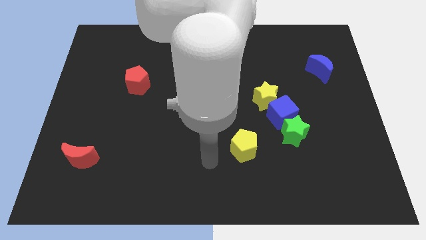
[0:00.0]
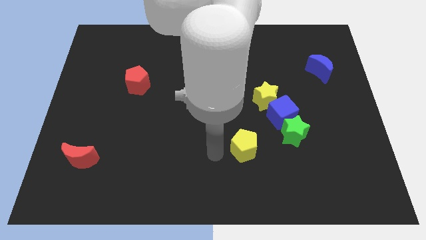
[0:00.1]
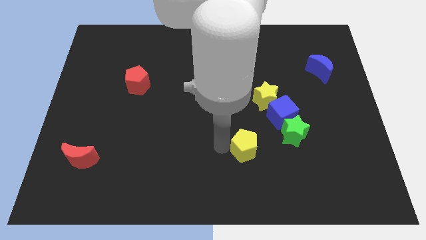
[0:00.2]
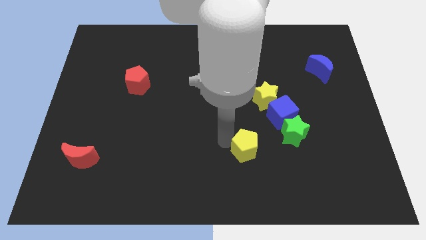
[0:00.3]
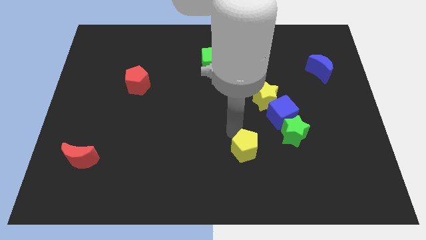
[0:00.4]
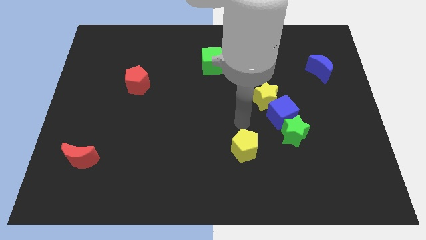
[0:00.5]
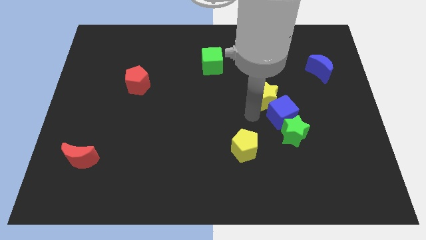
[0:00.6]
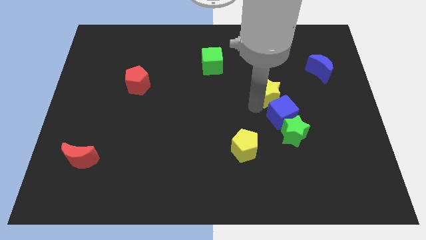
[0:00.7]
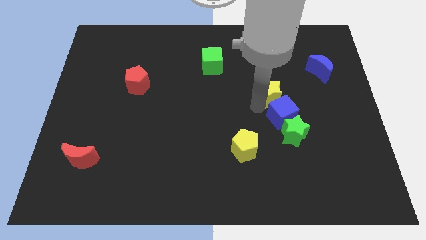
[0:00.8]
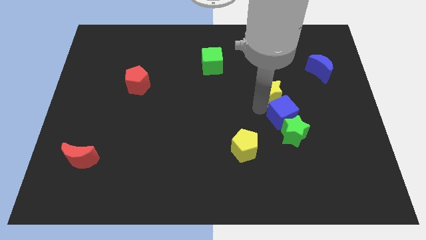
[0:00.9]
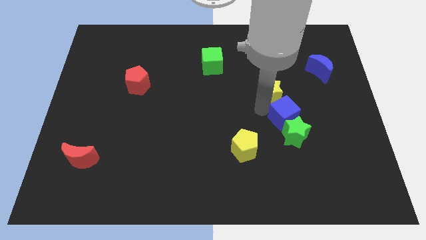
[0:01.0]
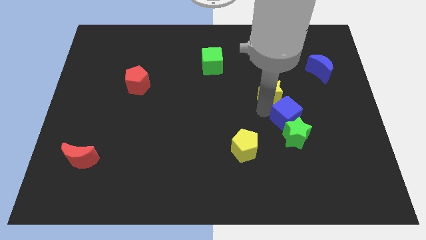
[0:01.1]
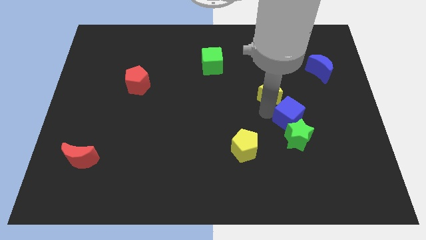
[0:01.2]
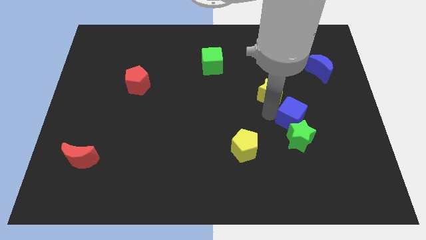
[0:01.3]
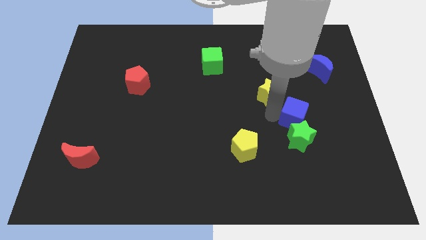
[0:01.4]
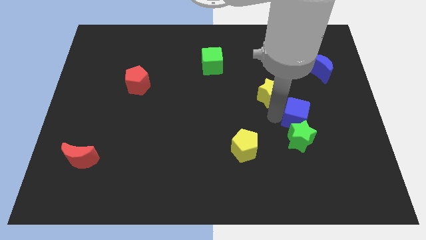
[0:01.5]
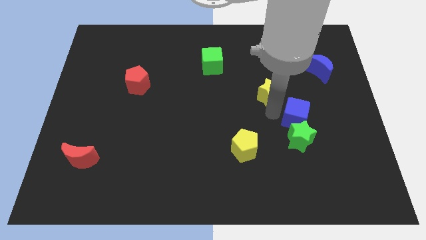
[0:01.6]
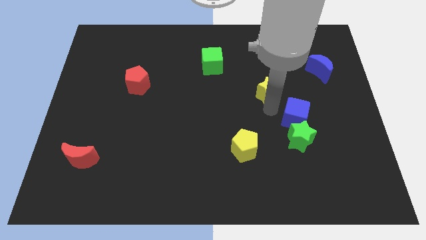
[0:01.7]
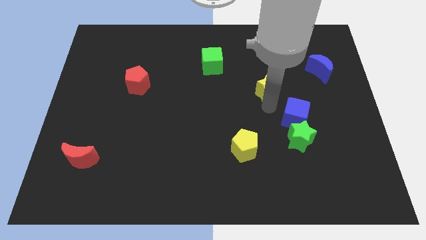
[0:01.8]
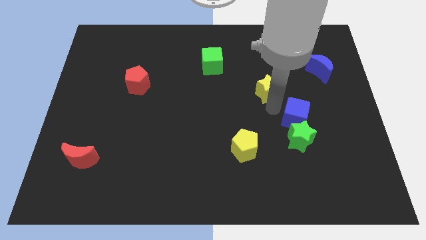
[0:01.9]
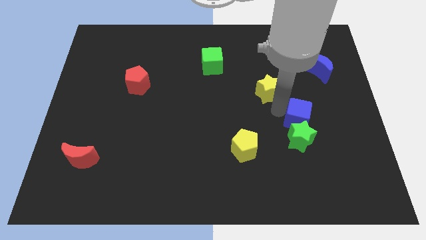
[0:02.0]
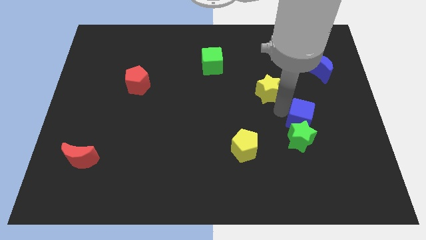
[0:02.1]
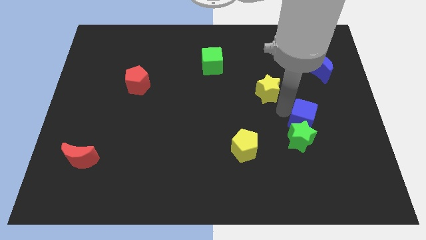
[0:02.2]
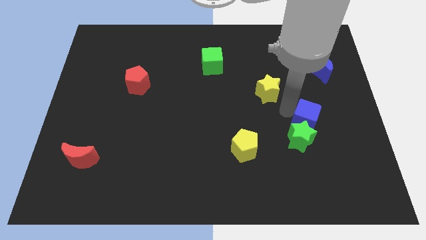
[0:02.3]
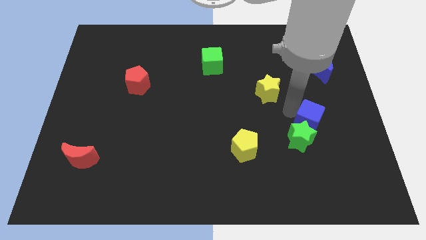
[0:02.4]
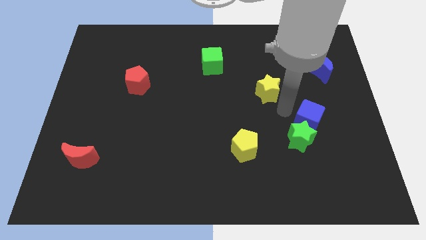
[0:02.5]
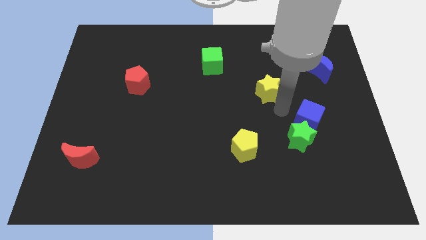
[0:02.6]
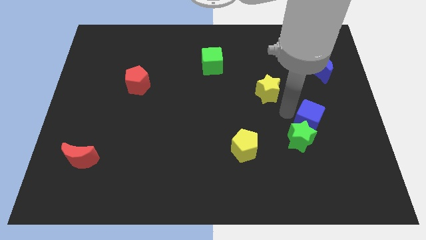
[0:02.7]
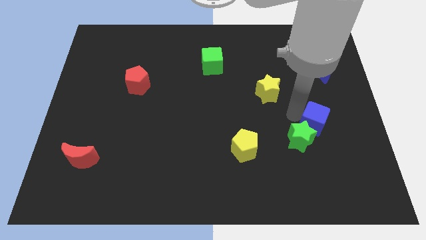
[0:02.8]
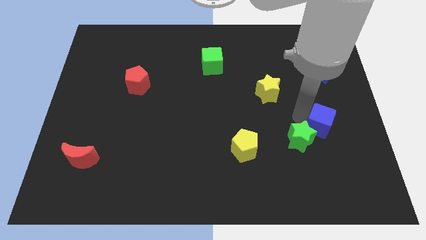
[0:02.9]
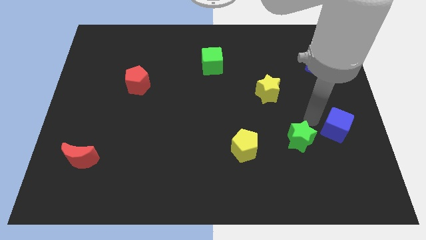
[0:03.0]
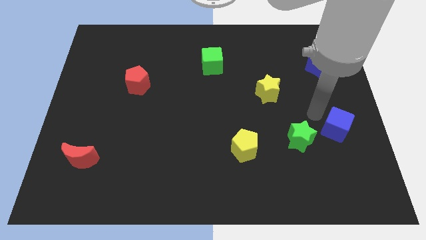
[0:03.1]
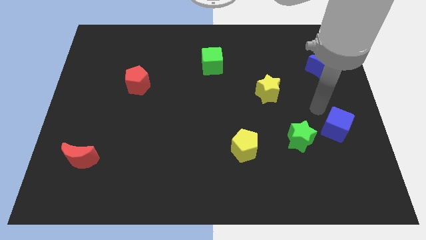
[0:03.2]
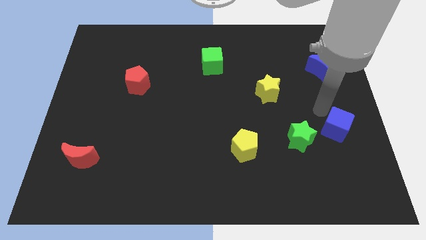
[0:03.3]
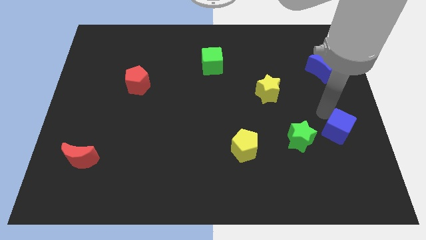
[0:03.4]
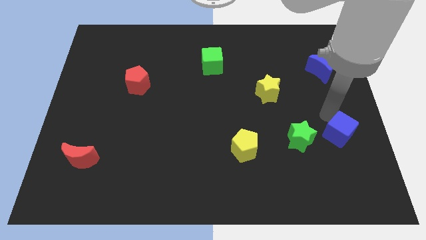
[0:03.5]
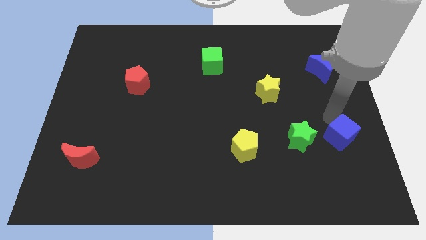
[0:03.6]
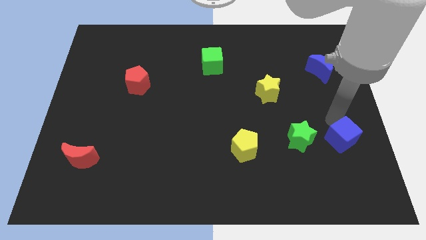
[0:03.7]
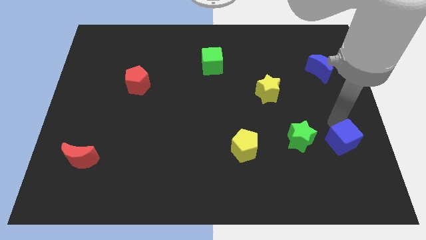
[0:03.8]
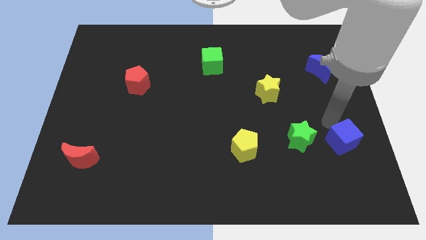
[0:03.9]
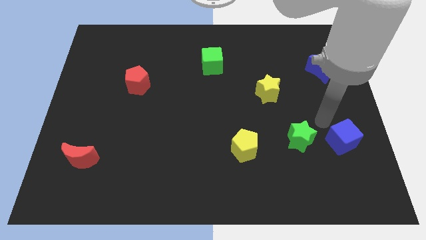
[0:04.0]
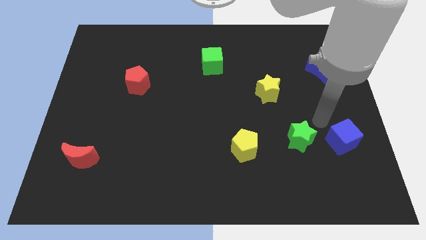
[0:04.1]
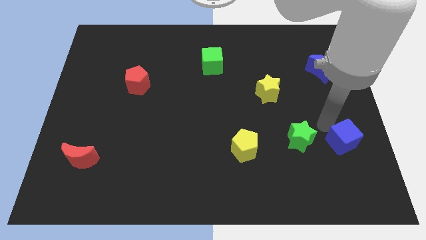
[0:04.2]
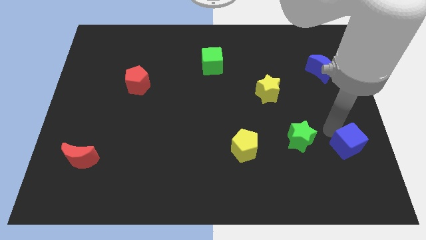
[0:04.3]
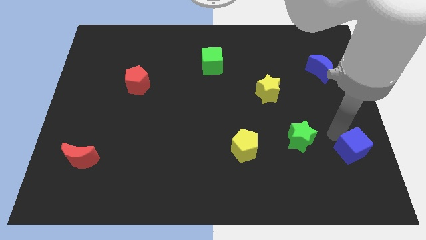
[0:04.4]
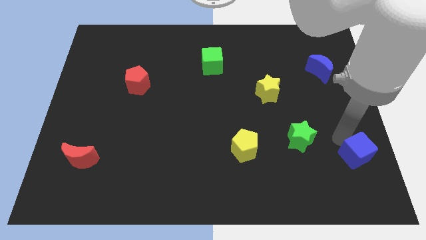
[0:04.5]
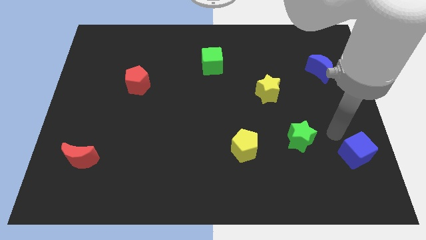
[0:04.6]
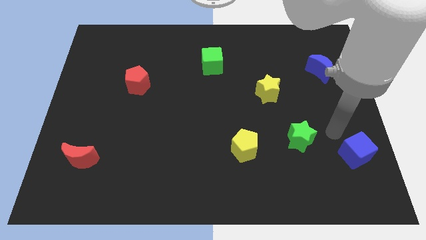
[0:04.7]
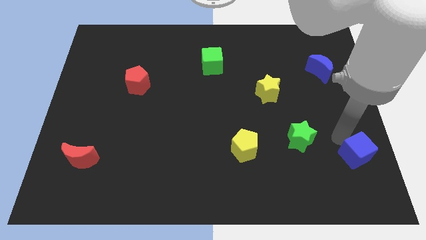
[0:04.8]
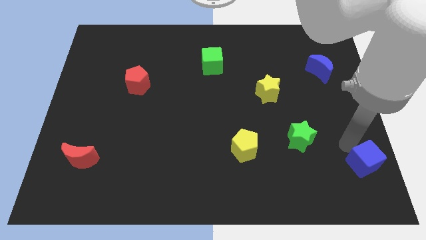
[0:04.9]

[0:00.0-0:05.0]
move the blue cube to the lower right corner

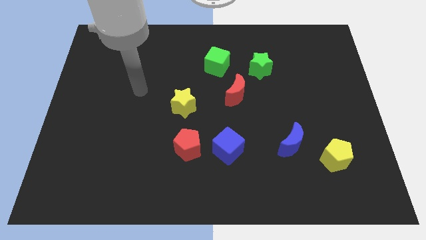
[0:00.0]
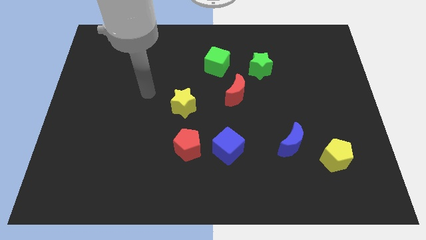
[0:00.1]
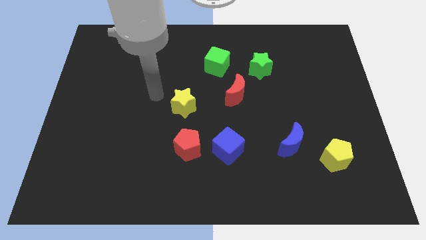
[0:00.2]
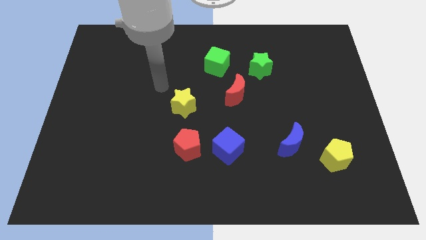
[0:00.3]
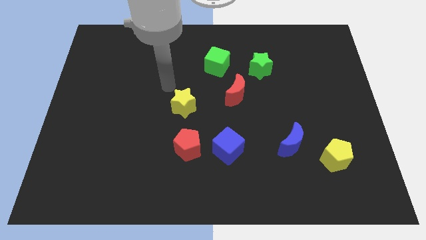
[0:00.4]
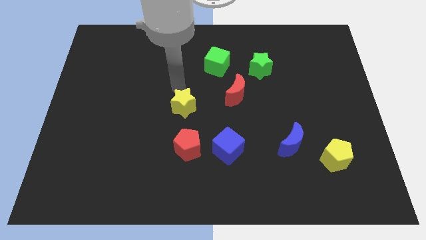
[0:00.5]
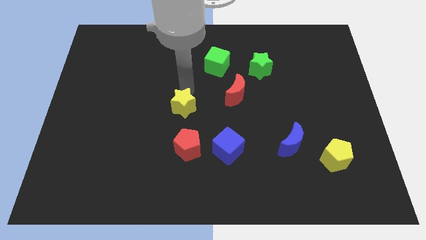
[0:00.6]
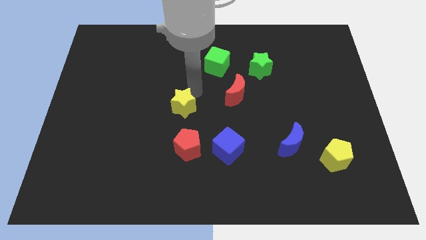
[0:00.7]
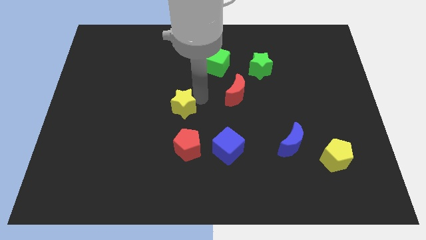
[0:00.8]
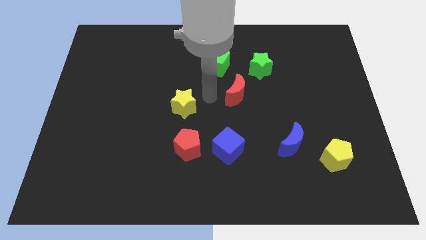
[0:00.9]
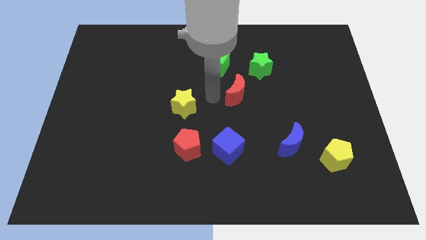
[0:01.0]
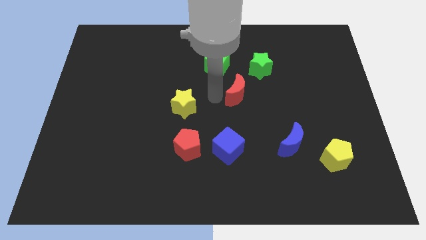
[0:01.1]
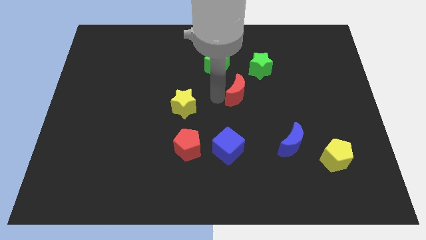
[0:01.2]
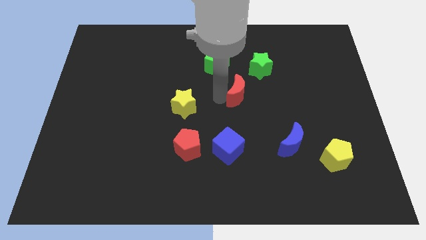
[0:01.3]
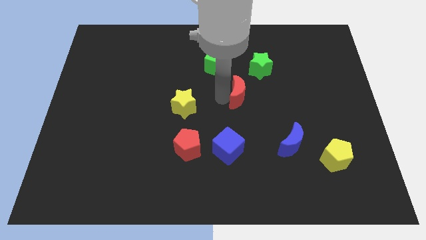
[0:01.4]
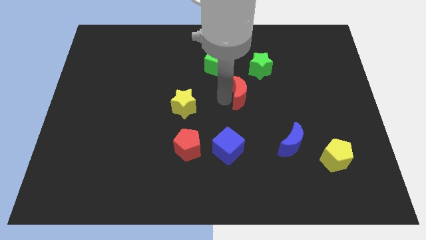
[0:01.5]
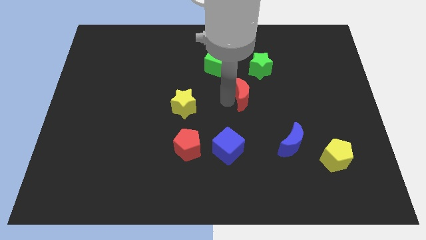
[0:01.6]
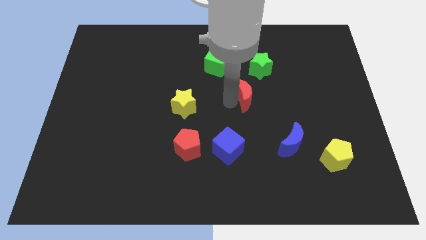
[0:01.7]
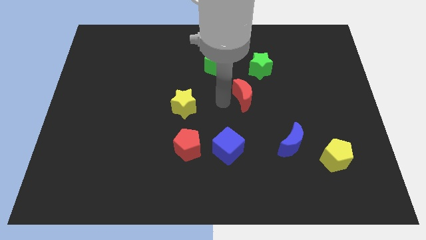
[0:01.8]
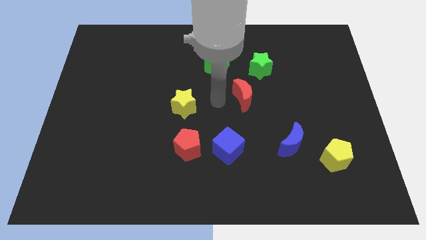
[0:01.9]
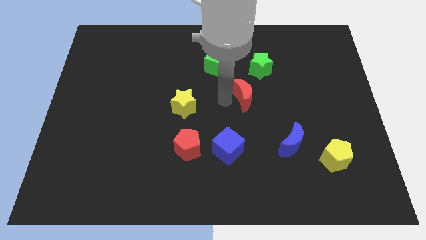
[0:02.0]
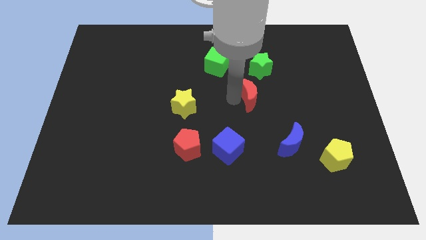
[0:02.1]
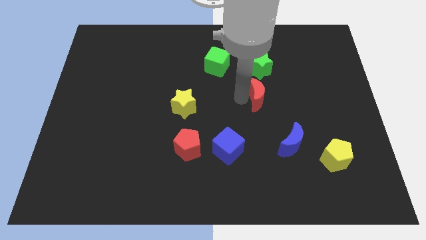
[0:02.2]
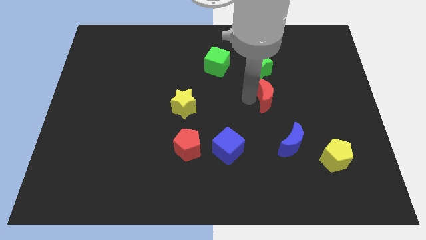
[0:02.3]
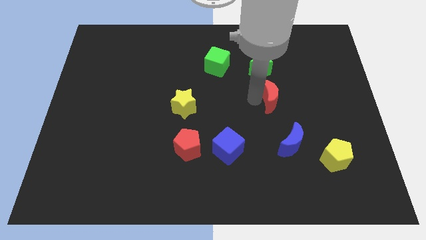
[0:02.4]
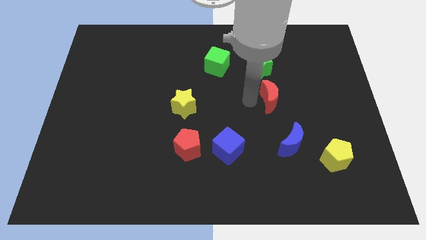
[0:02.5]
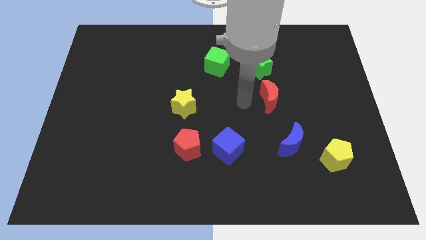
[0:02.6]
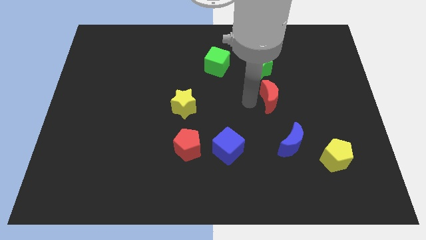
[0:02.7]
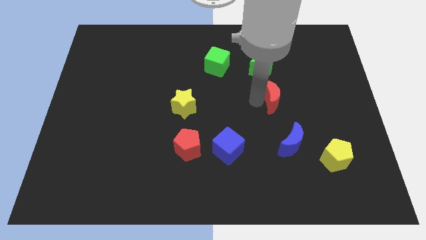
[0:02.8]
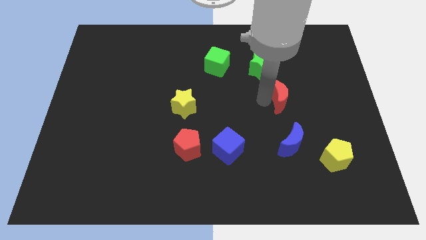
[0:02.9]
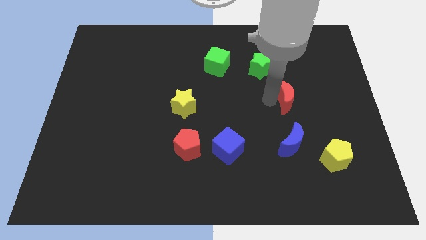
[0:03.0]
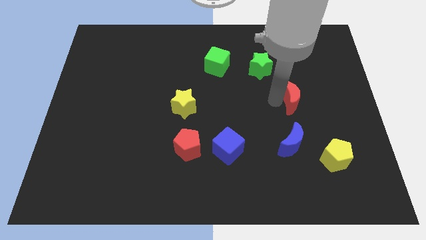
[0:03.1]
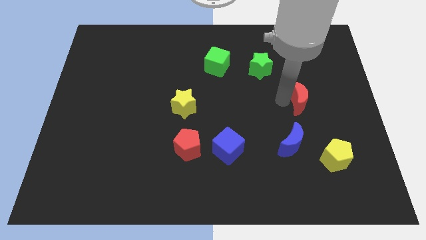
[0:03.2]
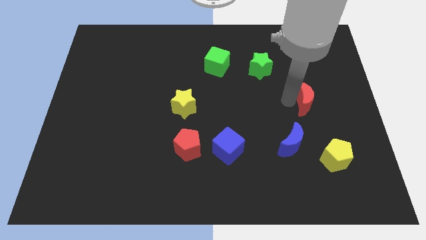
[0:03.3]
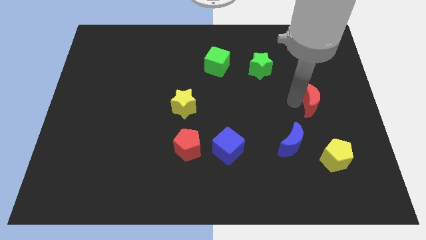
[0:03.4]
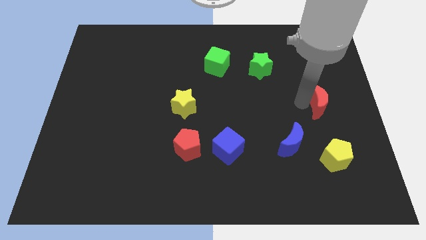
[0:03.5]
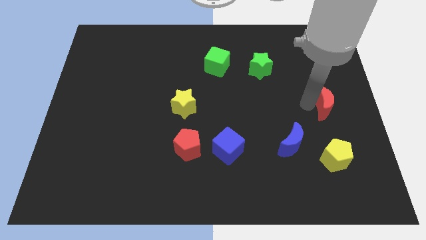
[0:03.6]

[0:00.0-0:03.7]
put the red moon to the right side
